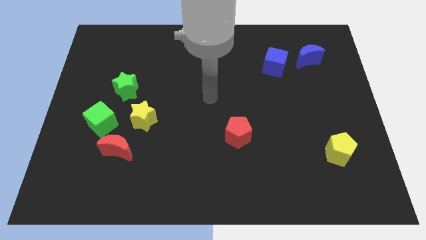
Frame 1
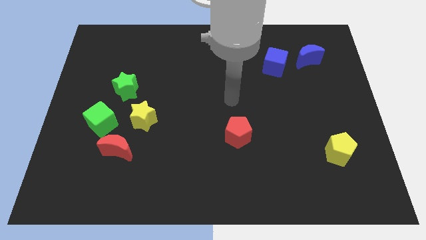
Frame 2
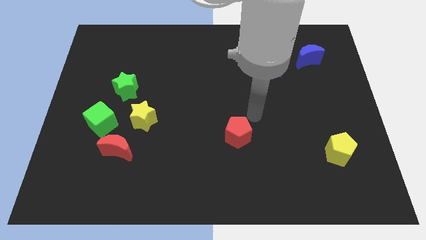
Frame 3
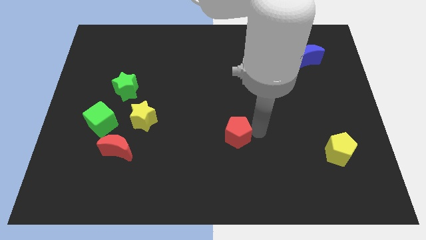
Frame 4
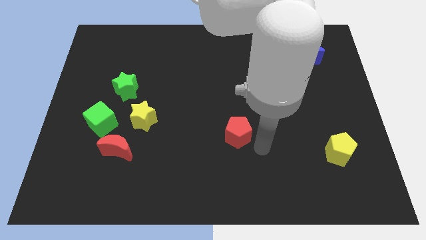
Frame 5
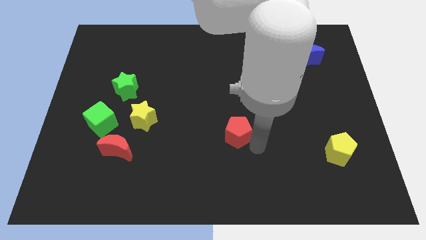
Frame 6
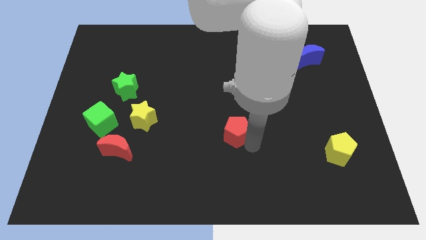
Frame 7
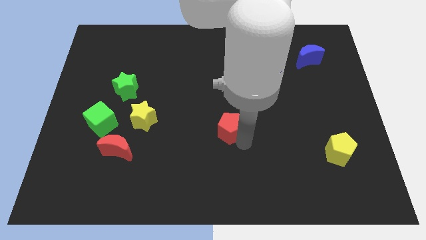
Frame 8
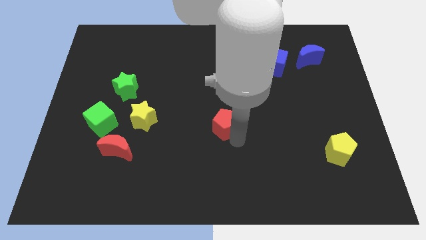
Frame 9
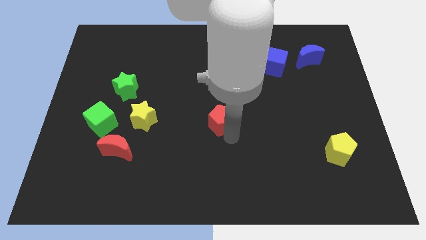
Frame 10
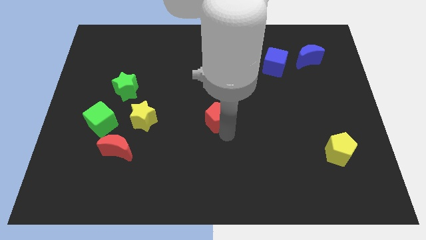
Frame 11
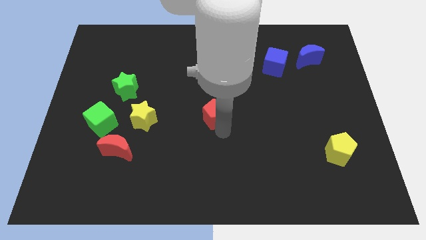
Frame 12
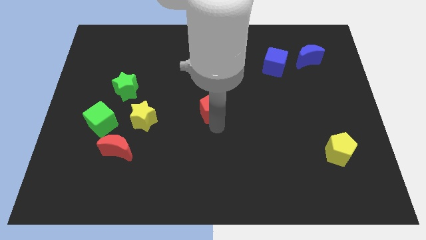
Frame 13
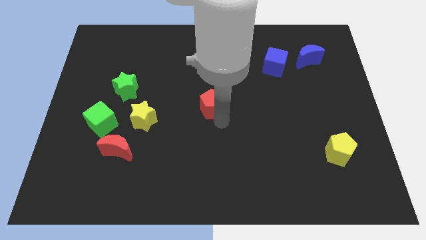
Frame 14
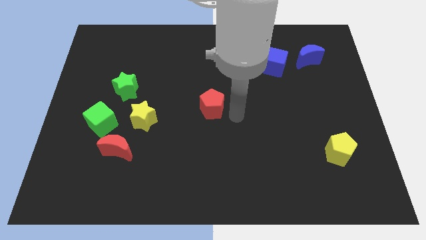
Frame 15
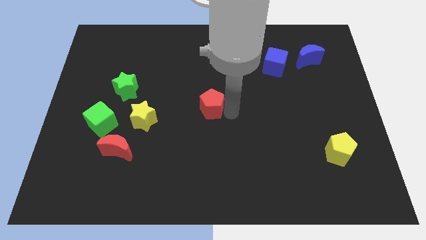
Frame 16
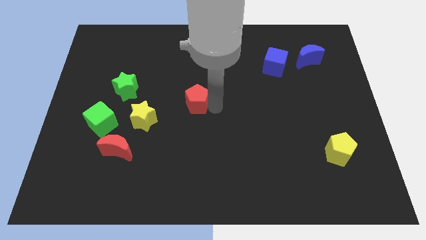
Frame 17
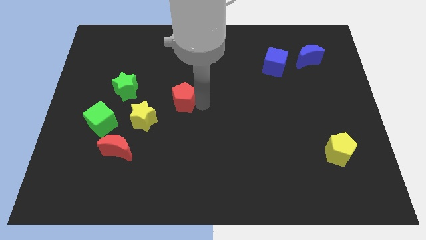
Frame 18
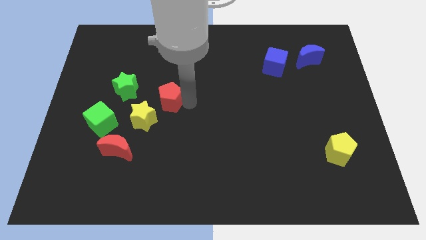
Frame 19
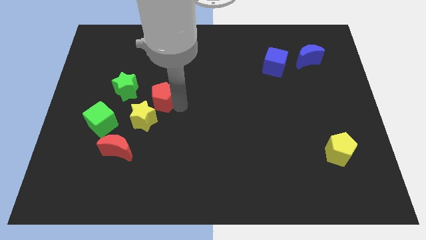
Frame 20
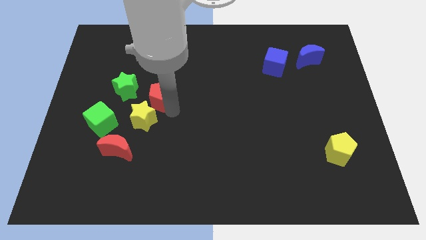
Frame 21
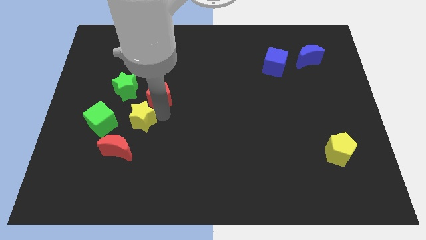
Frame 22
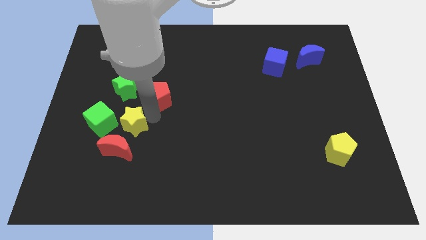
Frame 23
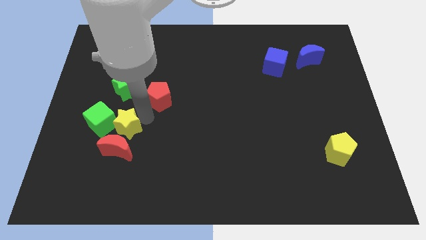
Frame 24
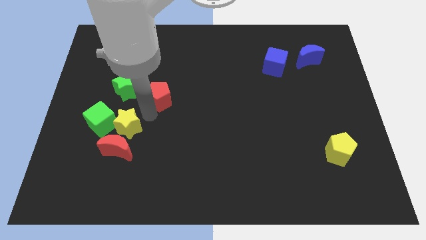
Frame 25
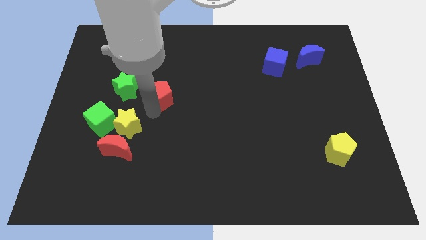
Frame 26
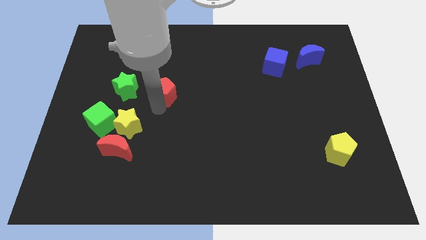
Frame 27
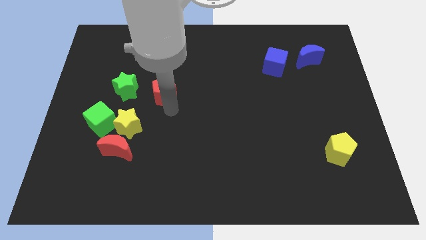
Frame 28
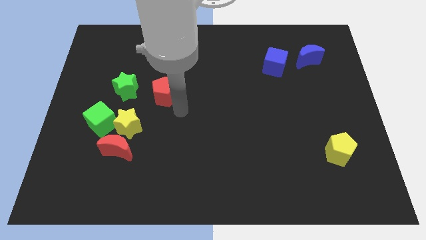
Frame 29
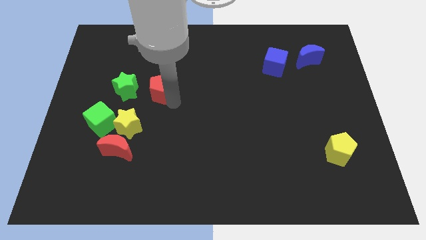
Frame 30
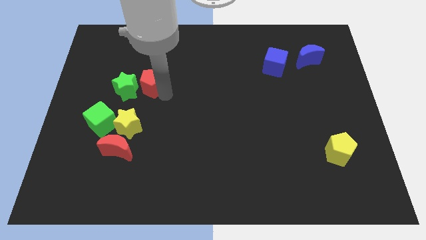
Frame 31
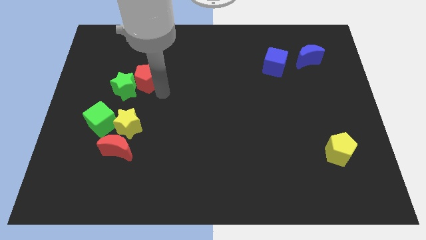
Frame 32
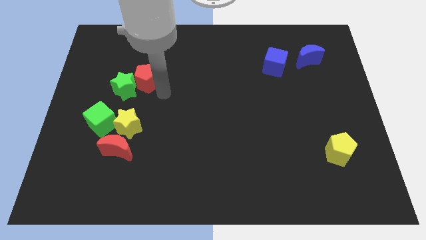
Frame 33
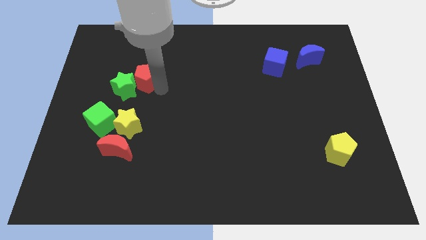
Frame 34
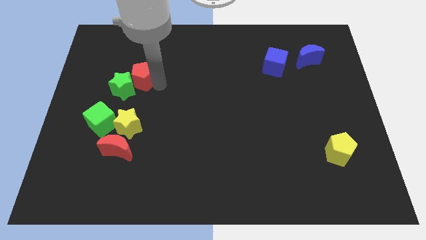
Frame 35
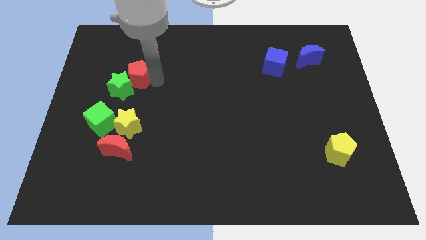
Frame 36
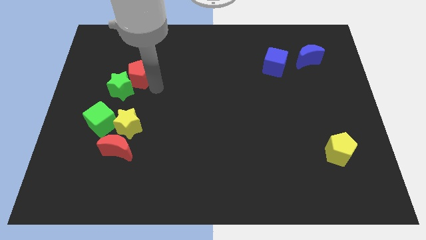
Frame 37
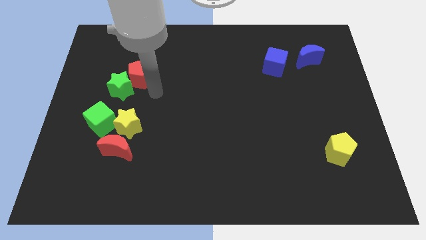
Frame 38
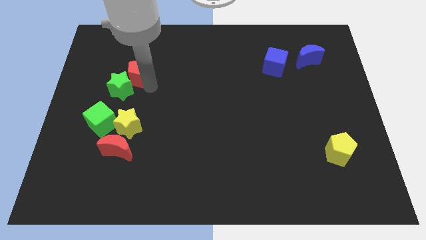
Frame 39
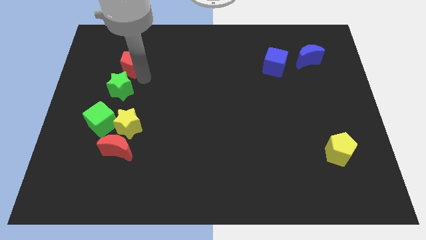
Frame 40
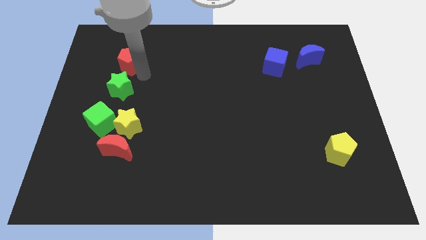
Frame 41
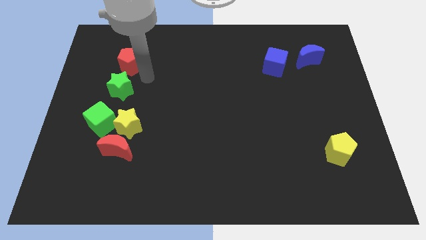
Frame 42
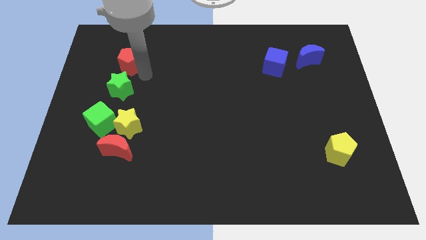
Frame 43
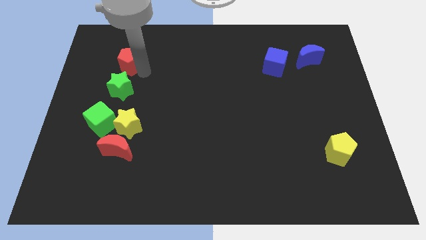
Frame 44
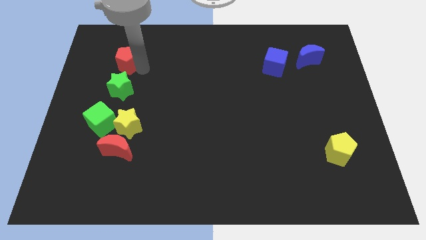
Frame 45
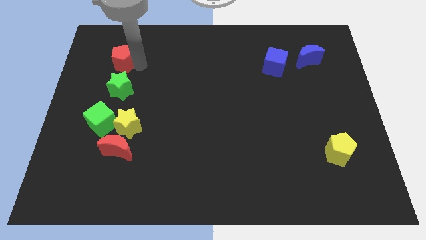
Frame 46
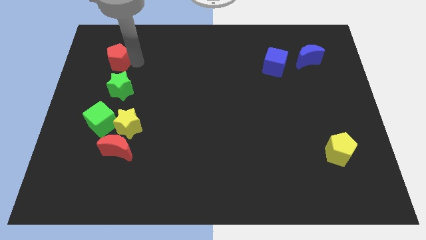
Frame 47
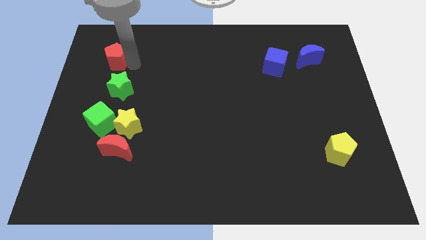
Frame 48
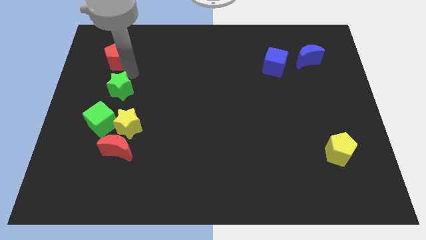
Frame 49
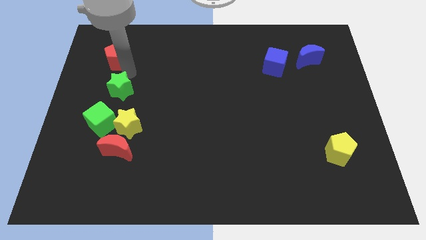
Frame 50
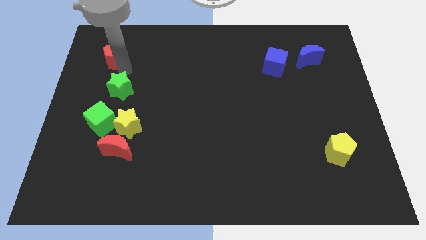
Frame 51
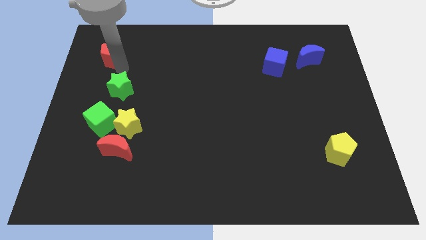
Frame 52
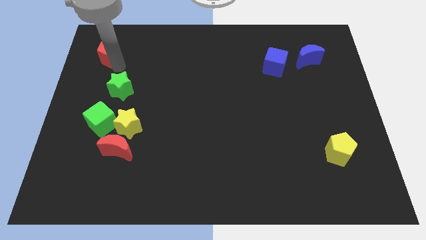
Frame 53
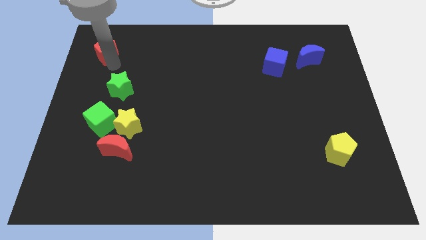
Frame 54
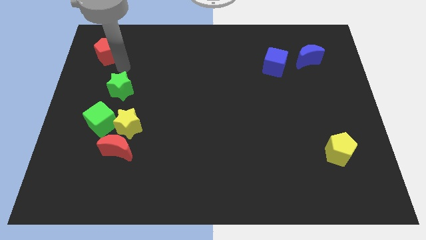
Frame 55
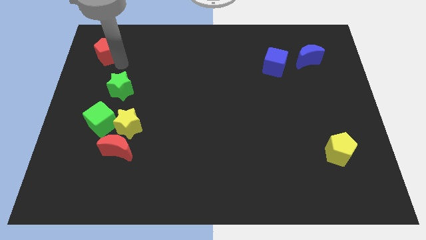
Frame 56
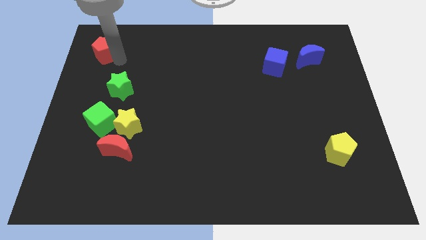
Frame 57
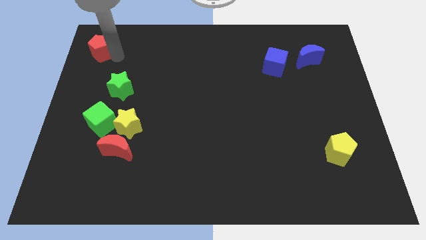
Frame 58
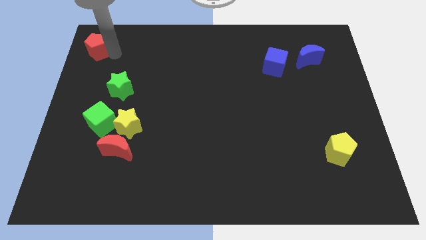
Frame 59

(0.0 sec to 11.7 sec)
slide the red pentagon to the upper left corner

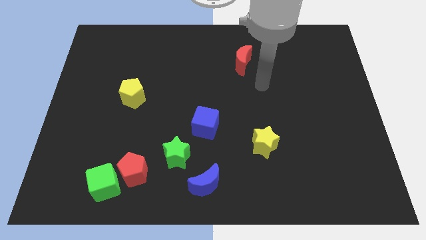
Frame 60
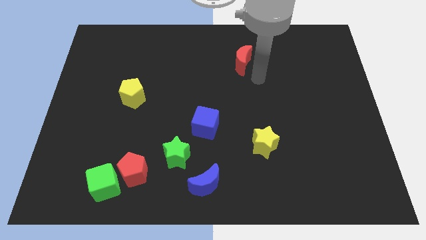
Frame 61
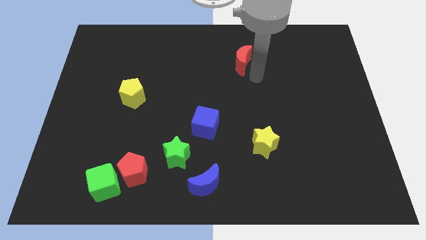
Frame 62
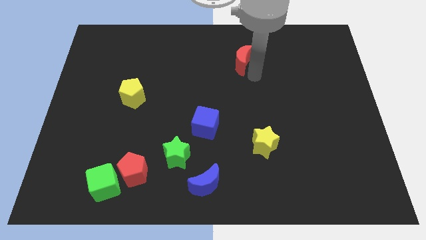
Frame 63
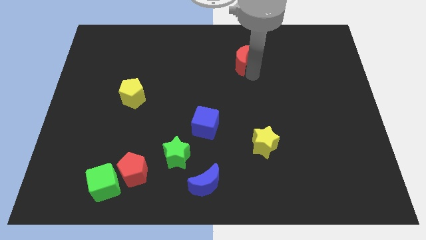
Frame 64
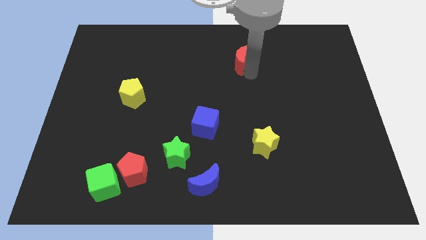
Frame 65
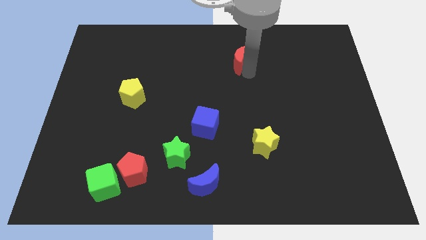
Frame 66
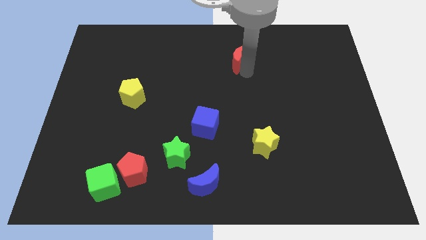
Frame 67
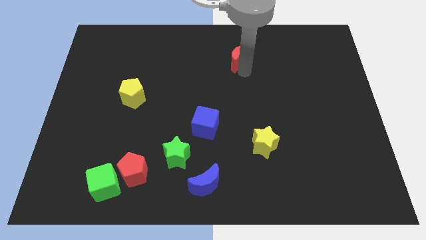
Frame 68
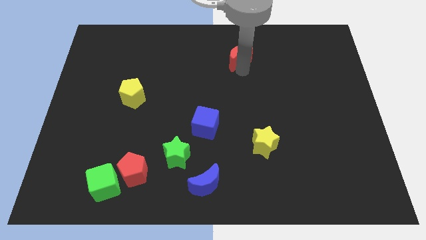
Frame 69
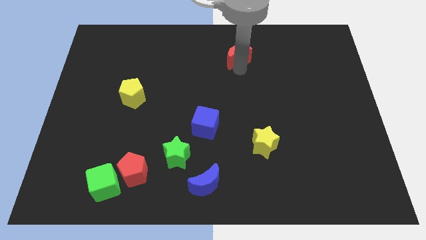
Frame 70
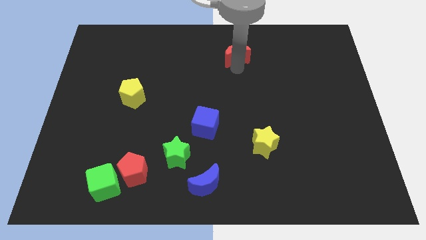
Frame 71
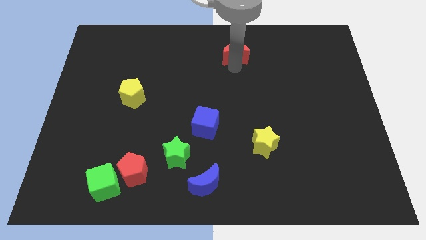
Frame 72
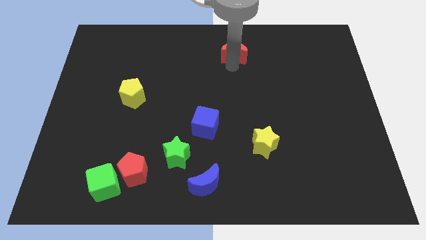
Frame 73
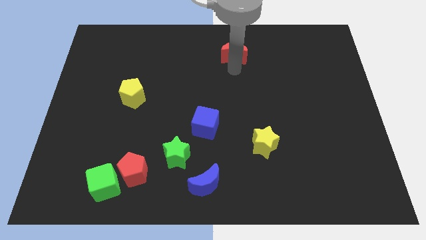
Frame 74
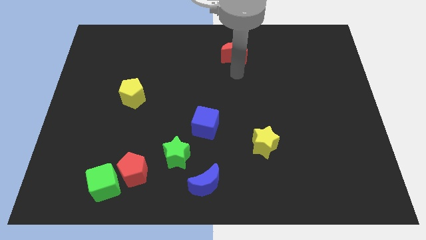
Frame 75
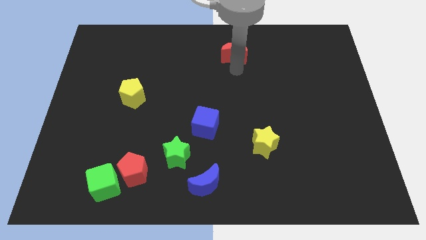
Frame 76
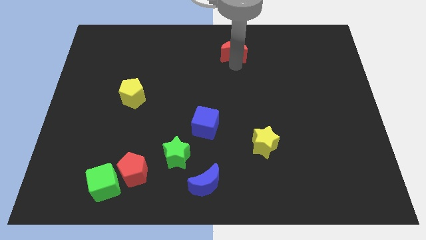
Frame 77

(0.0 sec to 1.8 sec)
push the red moon to the top
